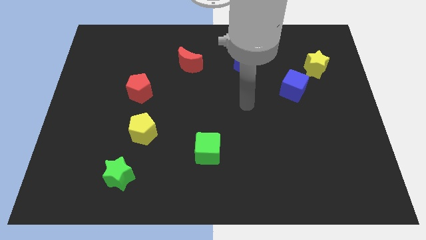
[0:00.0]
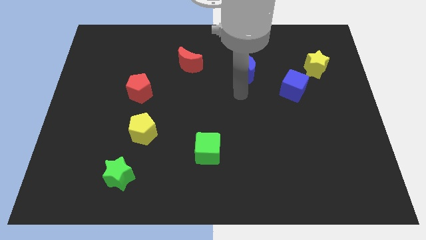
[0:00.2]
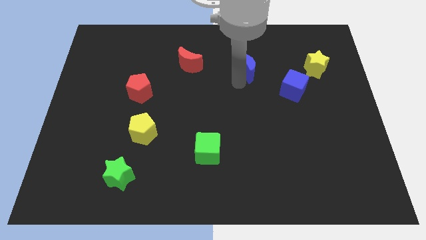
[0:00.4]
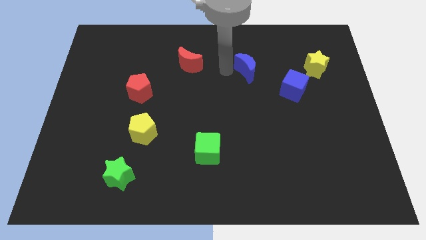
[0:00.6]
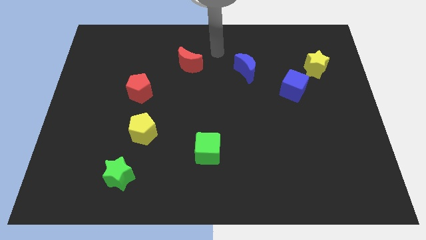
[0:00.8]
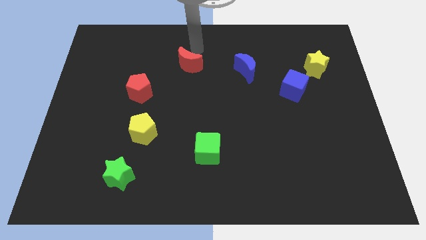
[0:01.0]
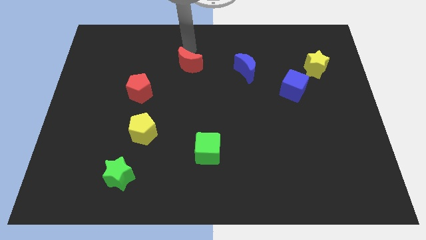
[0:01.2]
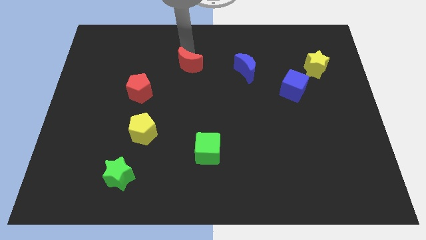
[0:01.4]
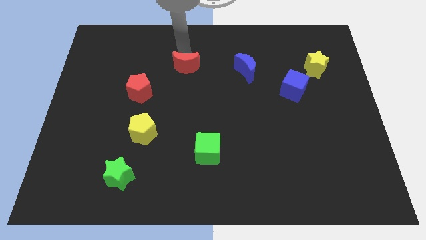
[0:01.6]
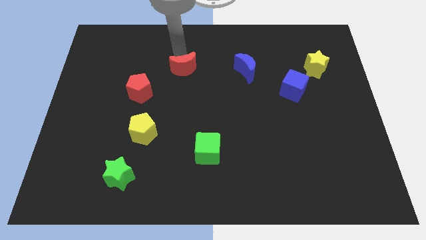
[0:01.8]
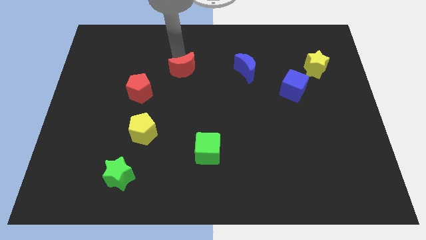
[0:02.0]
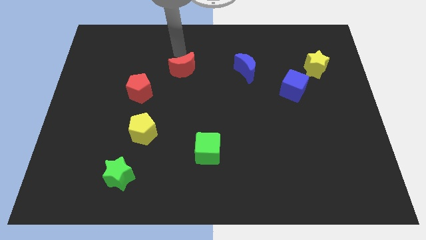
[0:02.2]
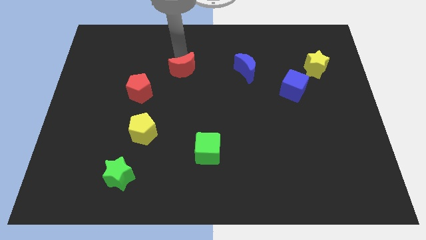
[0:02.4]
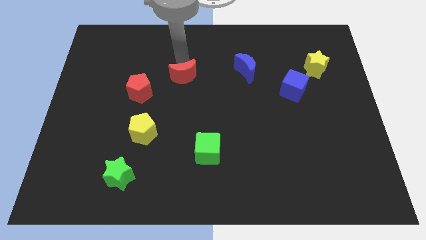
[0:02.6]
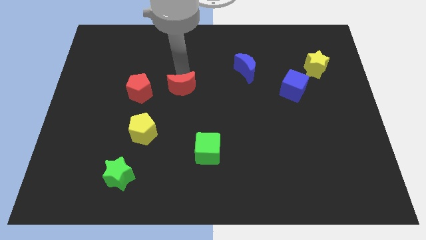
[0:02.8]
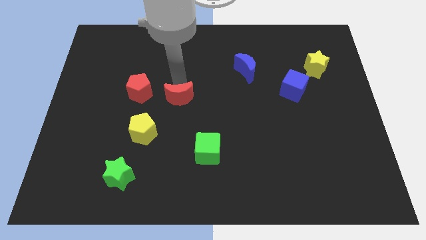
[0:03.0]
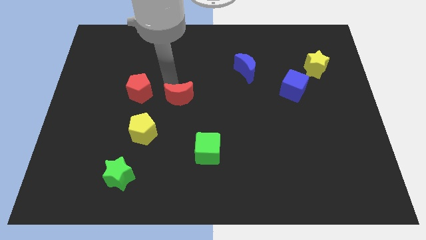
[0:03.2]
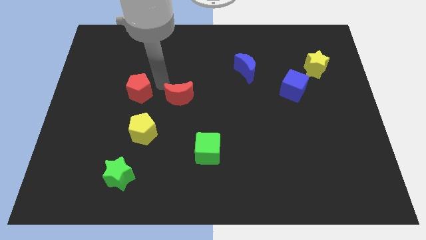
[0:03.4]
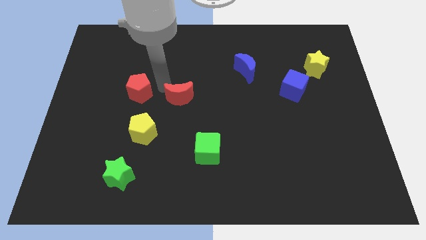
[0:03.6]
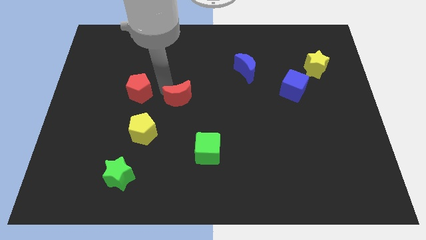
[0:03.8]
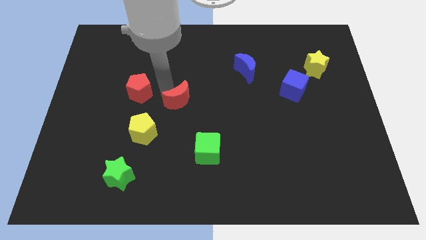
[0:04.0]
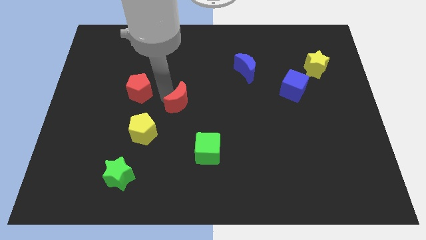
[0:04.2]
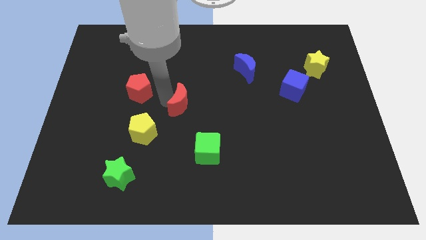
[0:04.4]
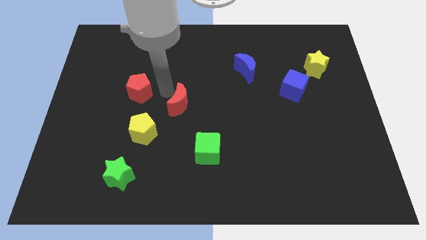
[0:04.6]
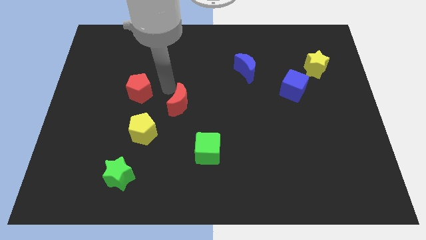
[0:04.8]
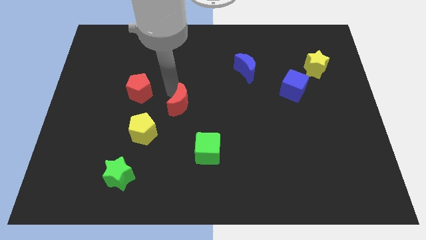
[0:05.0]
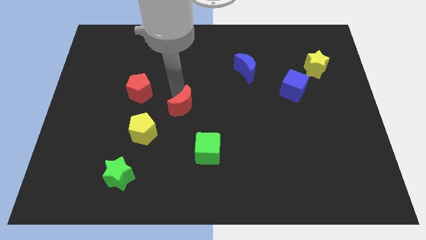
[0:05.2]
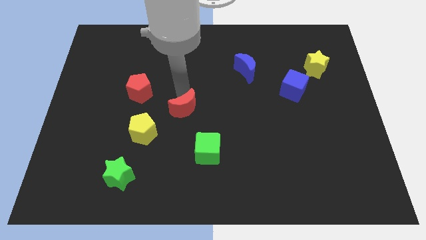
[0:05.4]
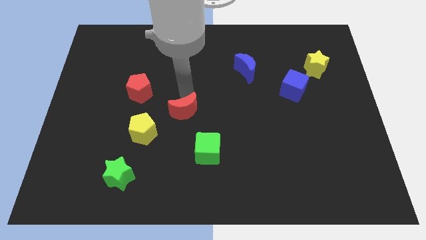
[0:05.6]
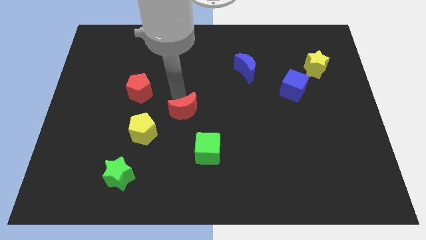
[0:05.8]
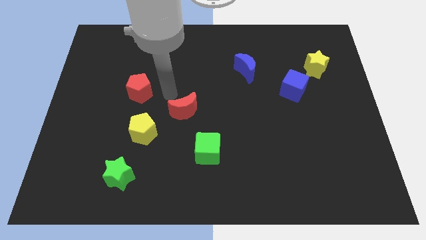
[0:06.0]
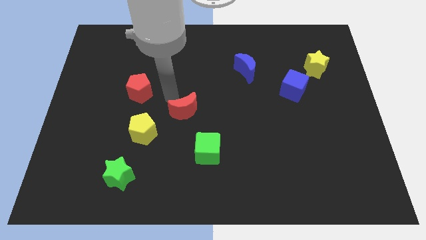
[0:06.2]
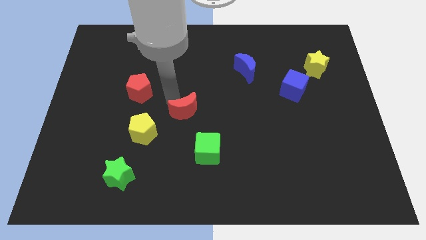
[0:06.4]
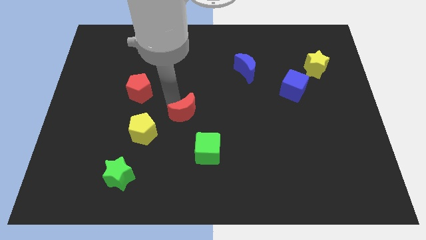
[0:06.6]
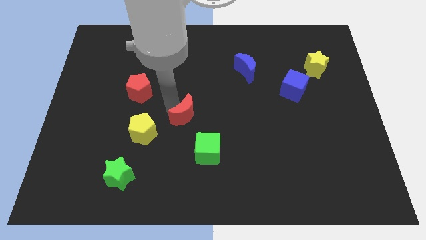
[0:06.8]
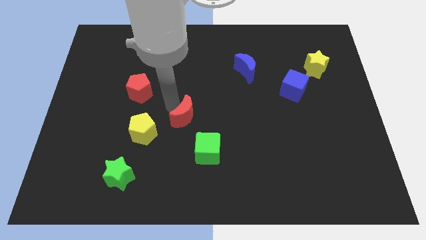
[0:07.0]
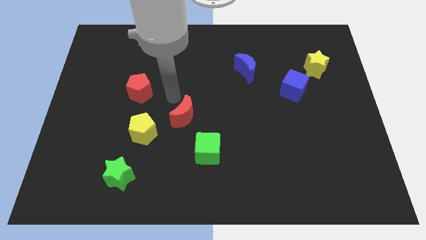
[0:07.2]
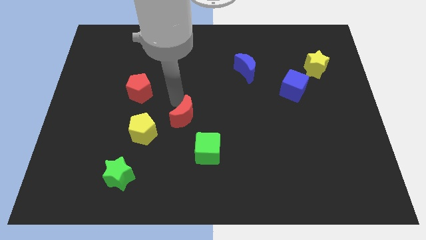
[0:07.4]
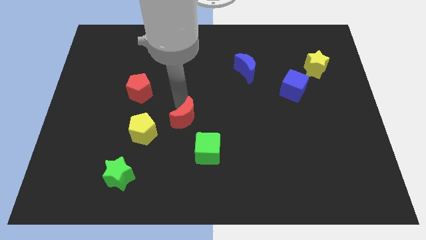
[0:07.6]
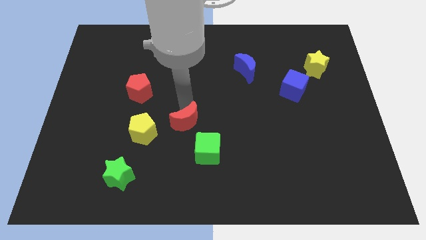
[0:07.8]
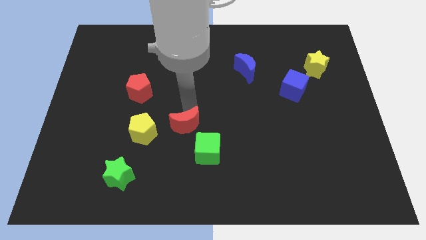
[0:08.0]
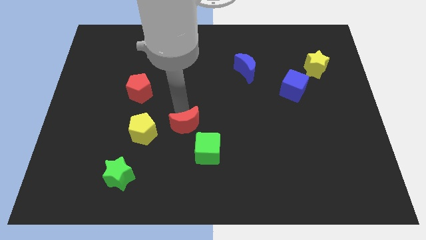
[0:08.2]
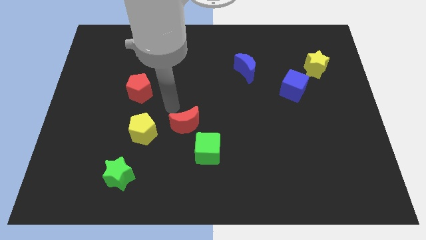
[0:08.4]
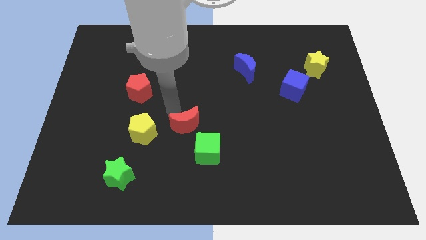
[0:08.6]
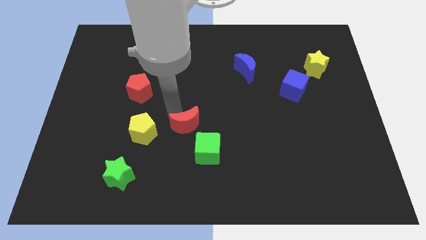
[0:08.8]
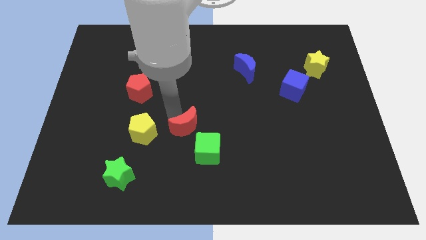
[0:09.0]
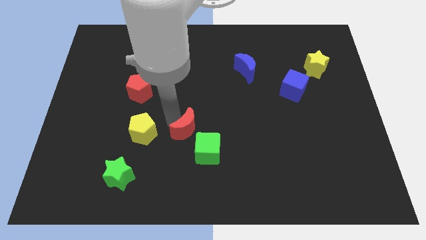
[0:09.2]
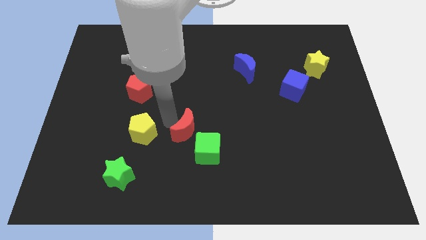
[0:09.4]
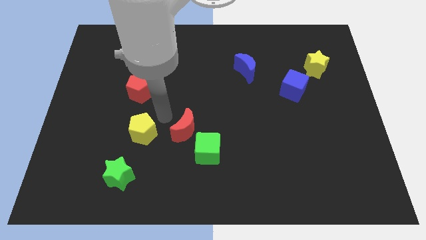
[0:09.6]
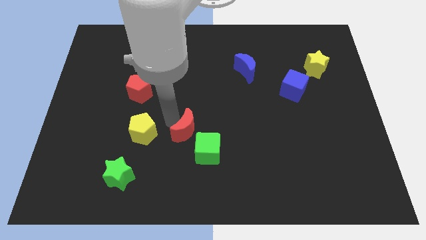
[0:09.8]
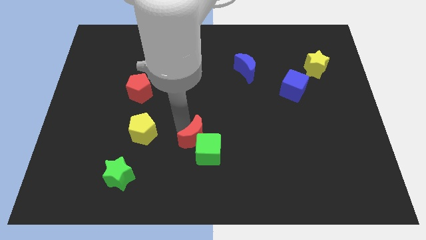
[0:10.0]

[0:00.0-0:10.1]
put the red moon close to the green cube

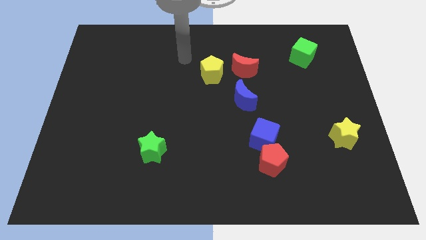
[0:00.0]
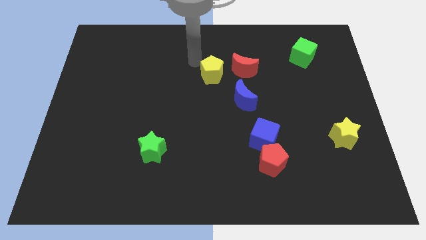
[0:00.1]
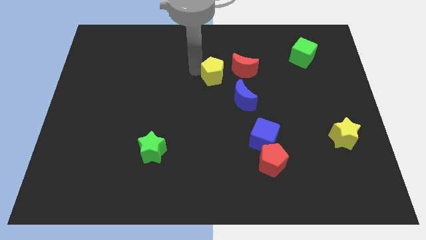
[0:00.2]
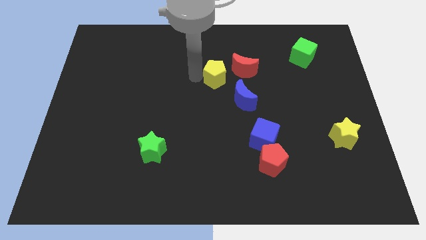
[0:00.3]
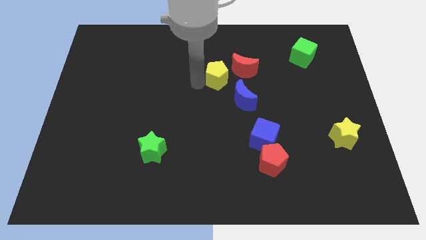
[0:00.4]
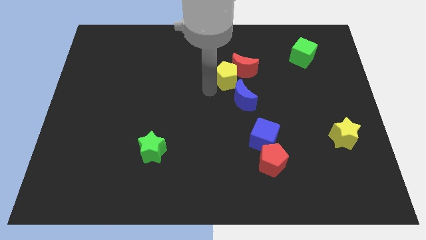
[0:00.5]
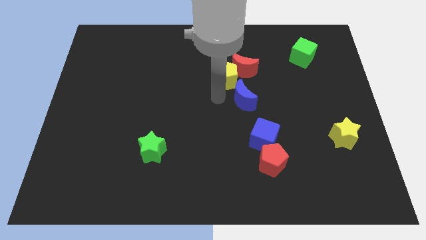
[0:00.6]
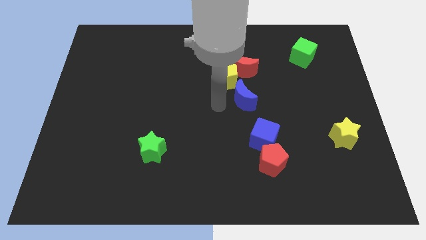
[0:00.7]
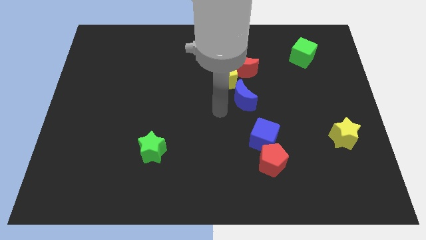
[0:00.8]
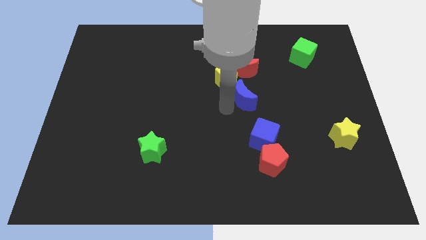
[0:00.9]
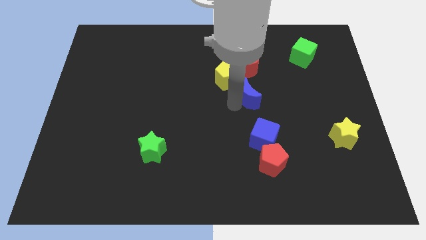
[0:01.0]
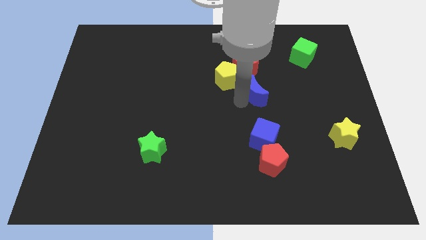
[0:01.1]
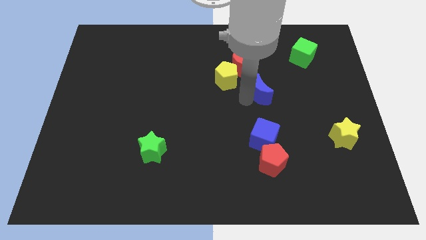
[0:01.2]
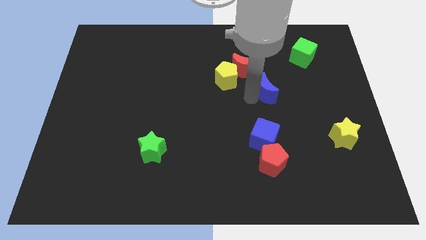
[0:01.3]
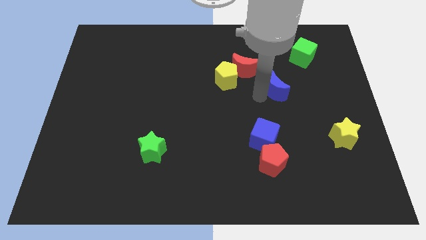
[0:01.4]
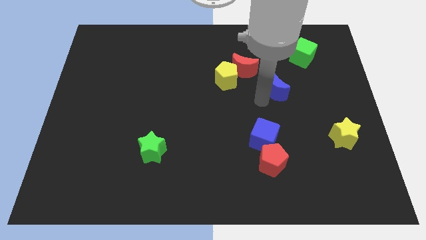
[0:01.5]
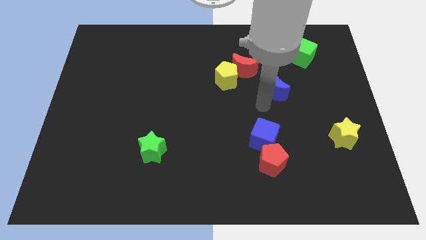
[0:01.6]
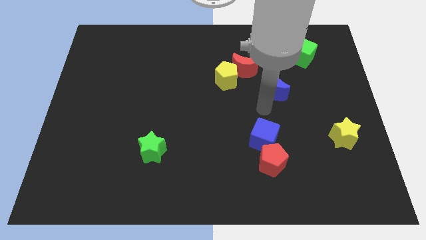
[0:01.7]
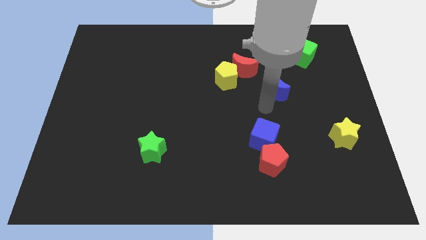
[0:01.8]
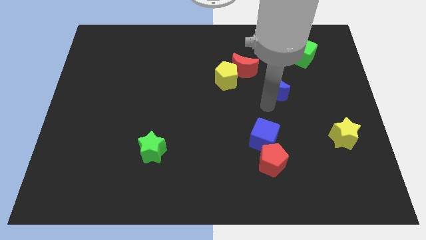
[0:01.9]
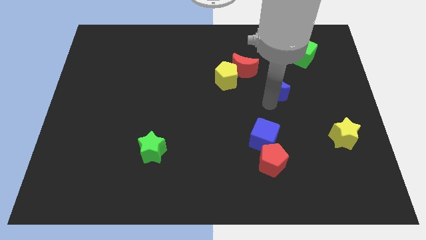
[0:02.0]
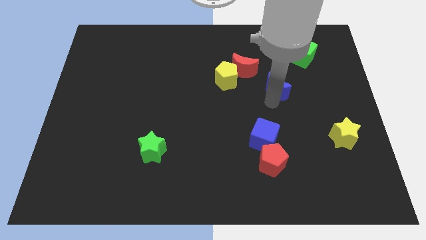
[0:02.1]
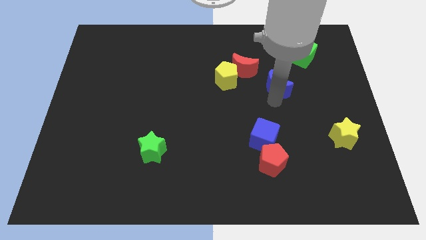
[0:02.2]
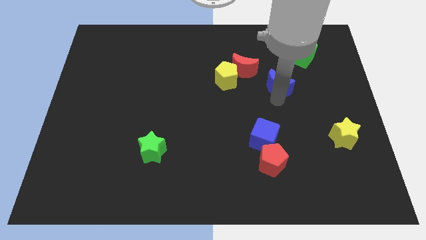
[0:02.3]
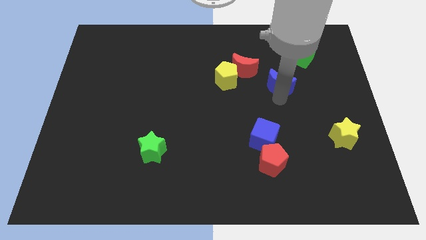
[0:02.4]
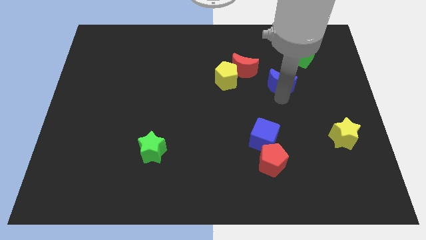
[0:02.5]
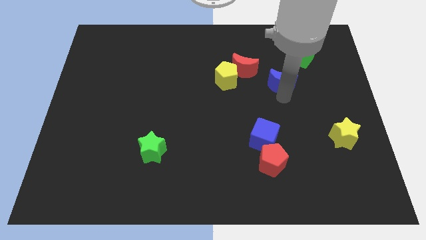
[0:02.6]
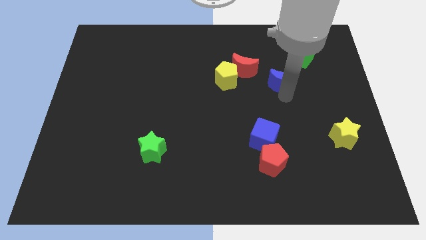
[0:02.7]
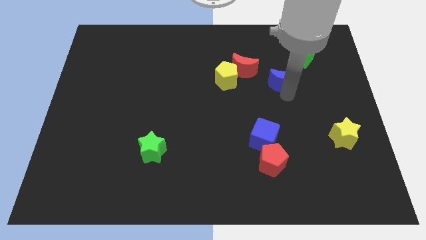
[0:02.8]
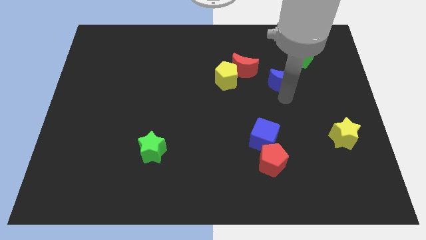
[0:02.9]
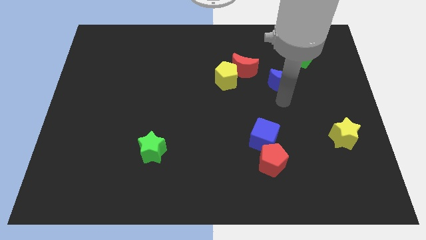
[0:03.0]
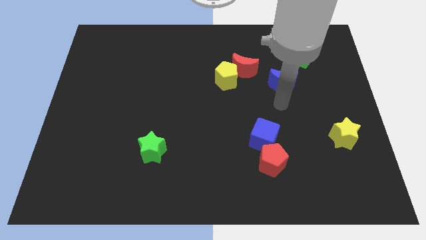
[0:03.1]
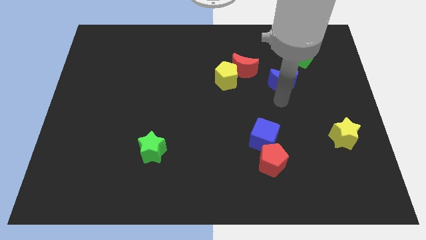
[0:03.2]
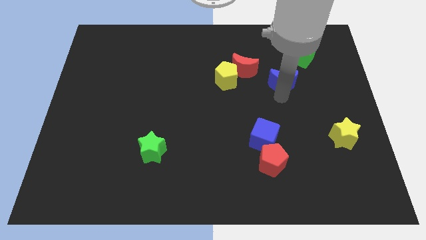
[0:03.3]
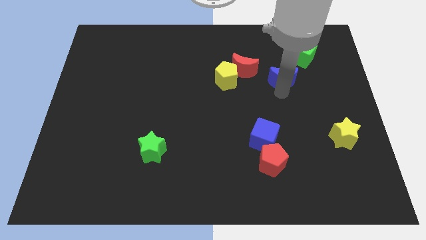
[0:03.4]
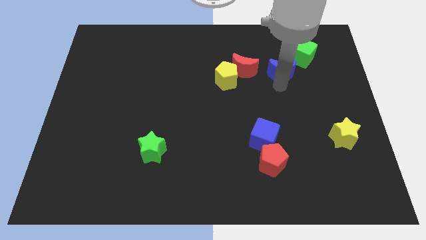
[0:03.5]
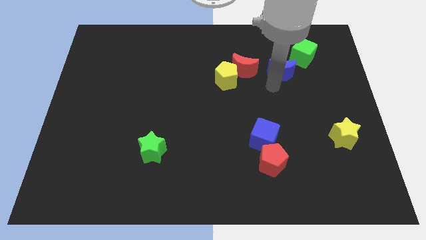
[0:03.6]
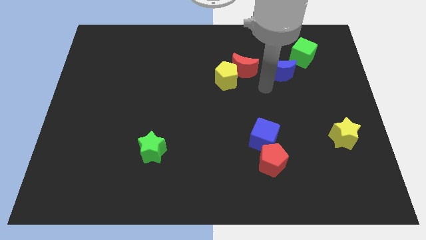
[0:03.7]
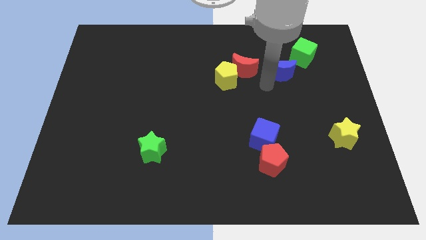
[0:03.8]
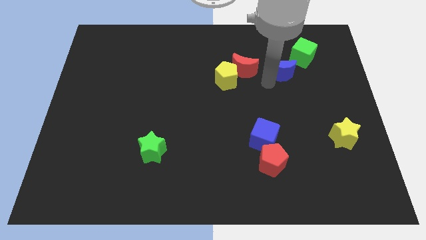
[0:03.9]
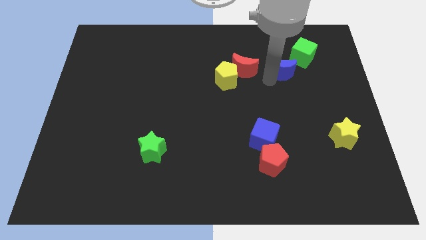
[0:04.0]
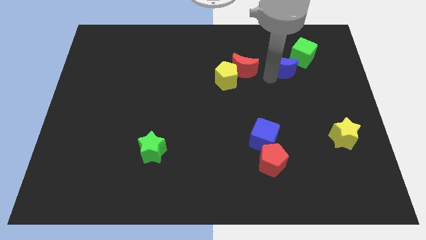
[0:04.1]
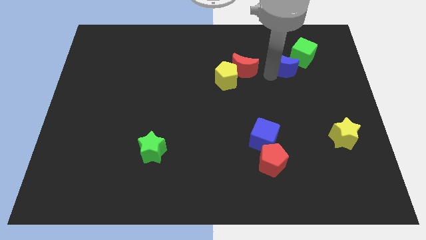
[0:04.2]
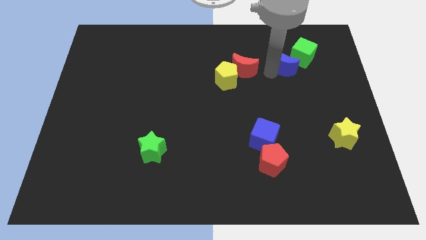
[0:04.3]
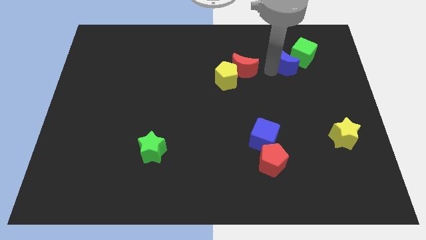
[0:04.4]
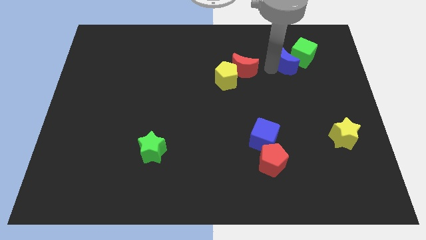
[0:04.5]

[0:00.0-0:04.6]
slide the blue moon to the green cube
